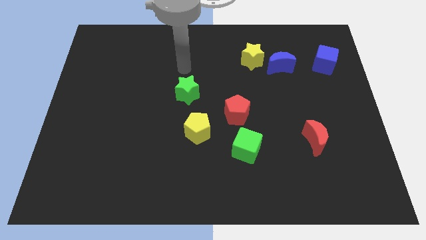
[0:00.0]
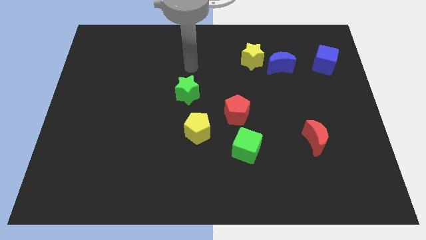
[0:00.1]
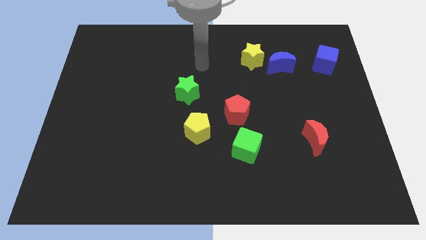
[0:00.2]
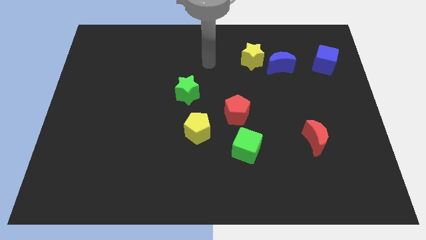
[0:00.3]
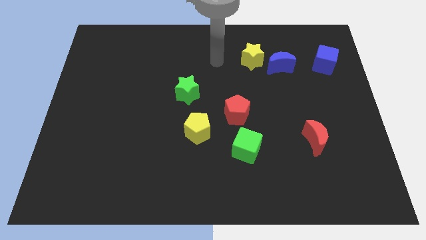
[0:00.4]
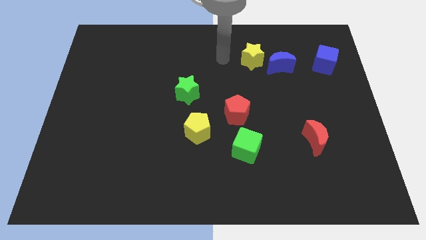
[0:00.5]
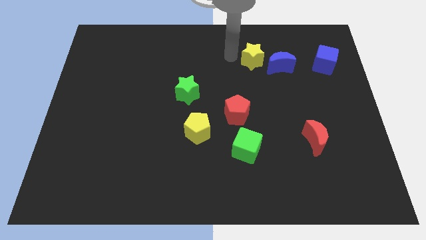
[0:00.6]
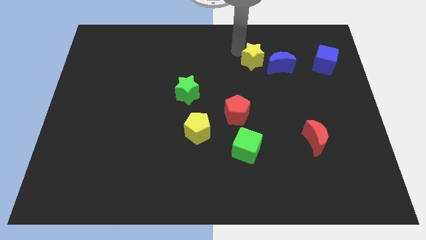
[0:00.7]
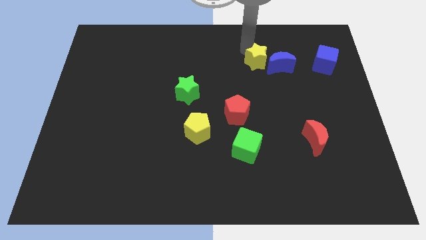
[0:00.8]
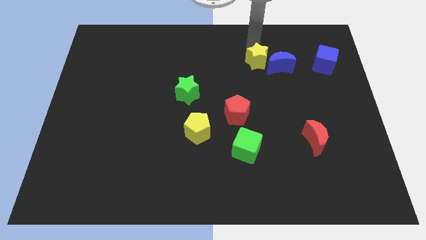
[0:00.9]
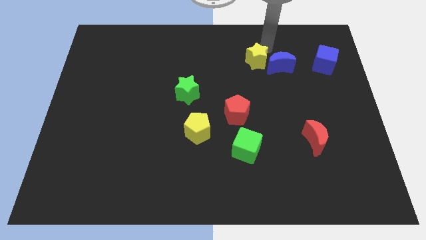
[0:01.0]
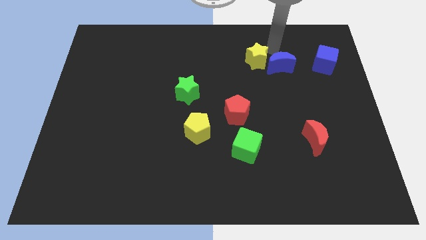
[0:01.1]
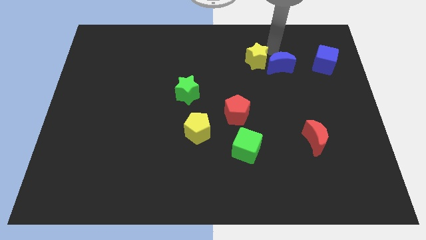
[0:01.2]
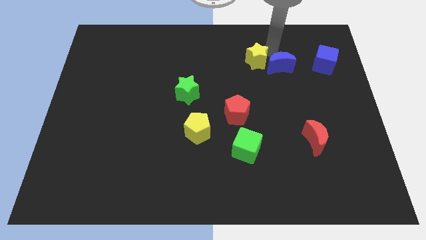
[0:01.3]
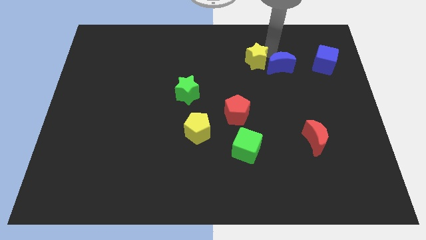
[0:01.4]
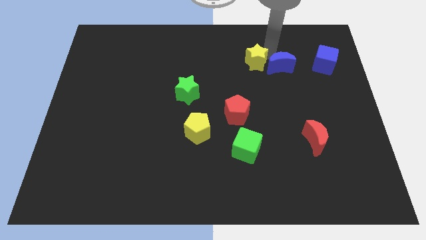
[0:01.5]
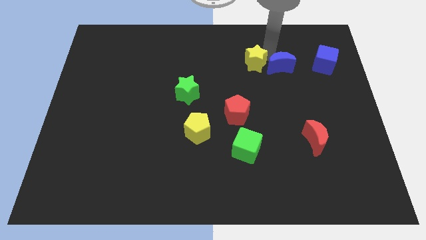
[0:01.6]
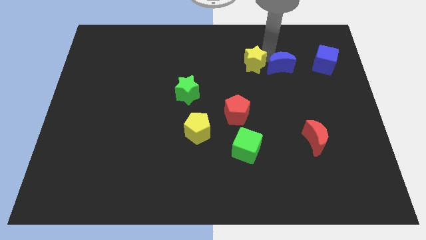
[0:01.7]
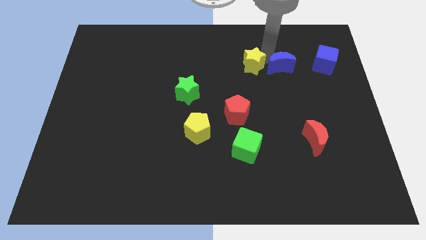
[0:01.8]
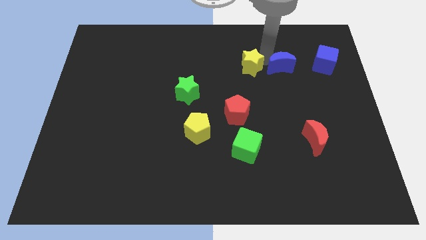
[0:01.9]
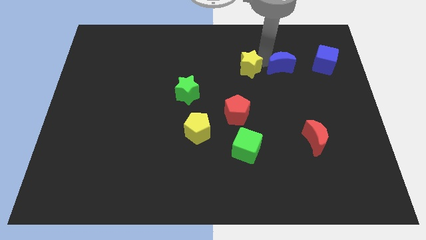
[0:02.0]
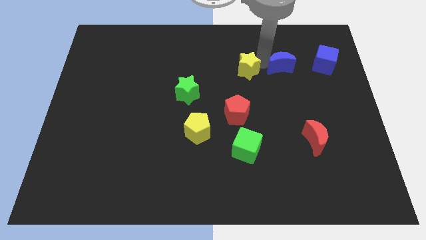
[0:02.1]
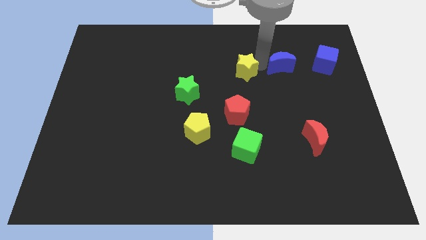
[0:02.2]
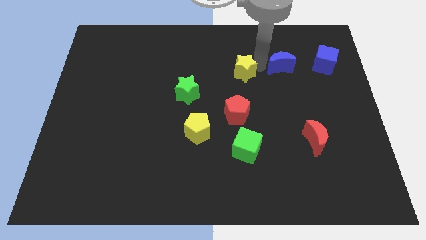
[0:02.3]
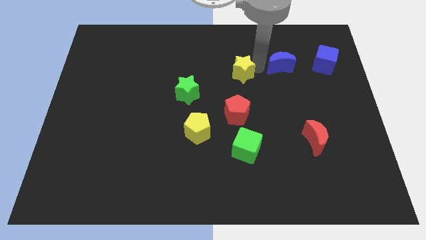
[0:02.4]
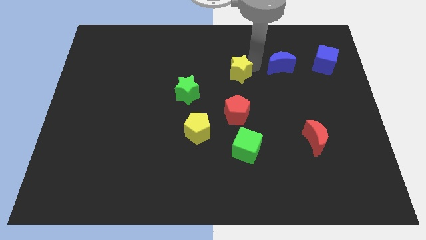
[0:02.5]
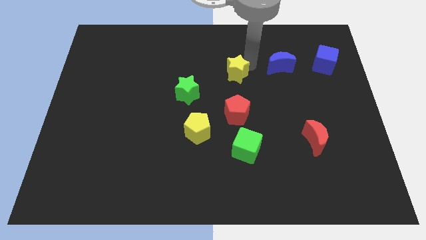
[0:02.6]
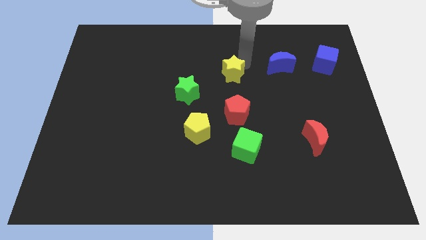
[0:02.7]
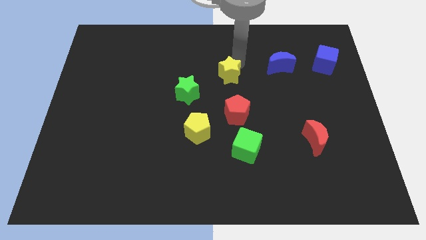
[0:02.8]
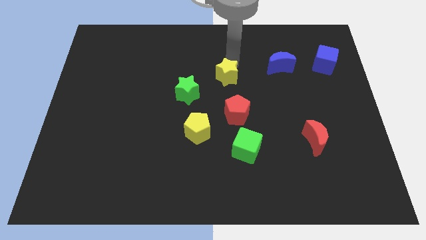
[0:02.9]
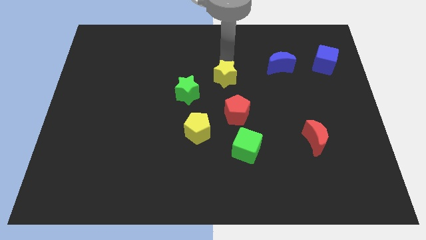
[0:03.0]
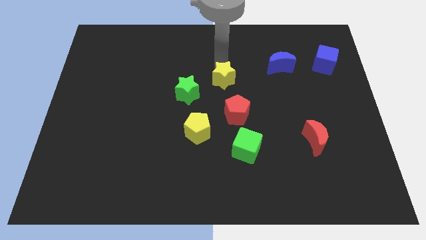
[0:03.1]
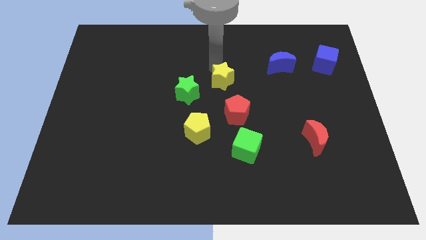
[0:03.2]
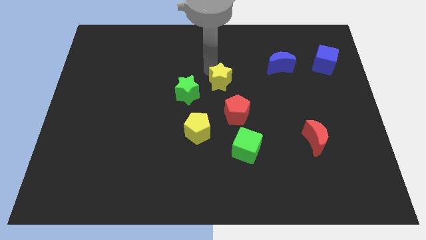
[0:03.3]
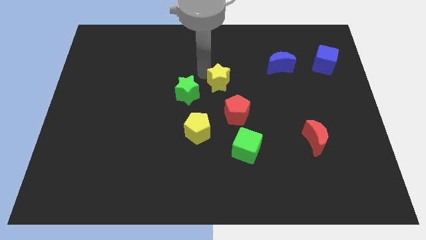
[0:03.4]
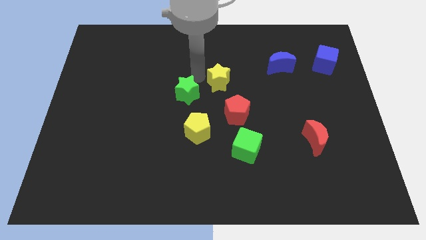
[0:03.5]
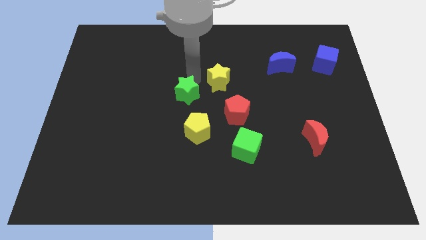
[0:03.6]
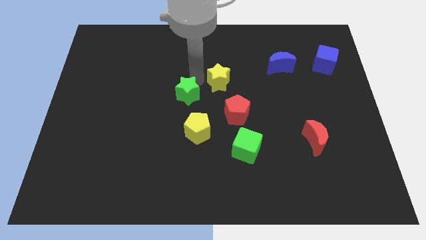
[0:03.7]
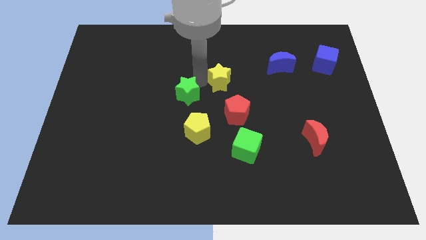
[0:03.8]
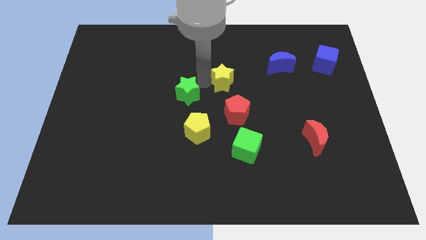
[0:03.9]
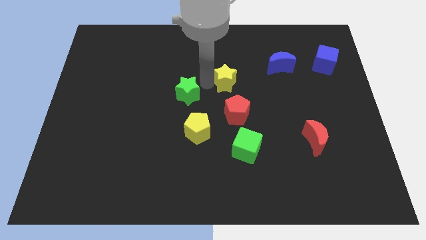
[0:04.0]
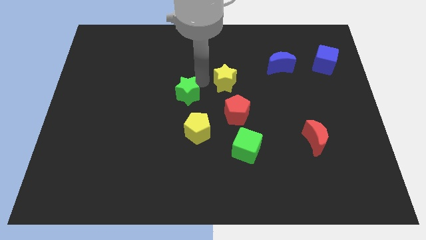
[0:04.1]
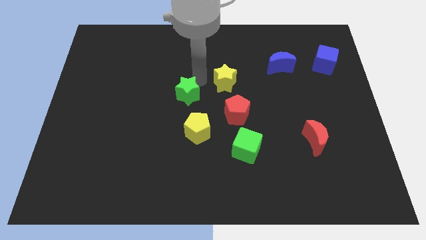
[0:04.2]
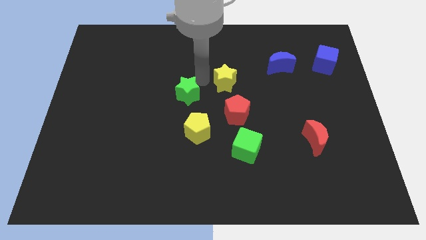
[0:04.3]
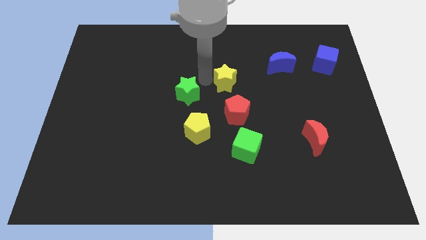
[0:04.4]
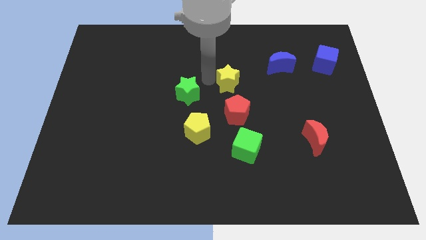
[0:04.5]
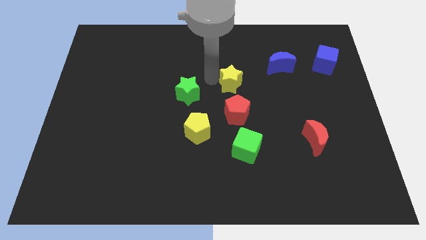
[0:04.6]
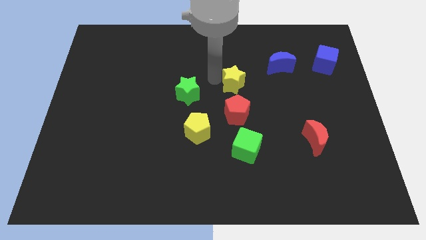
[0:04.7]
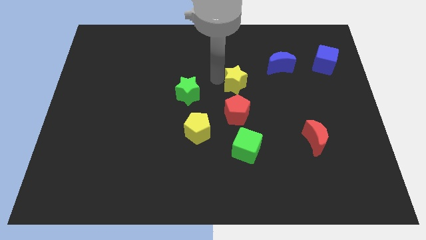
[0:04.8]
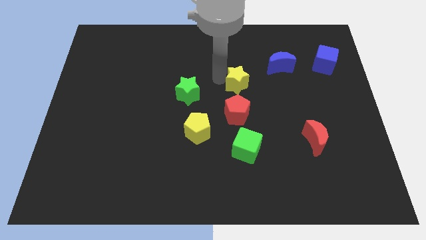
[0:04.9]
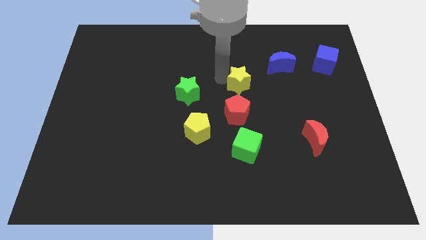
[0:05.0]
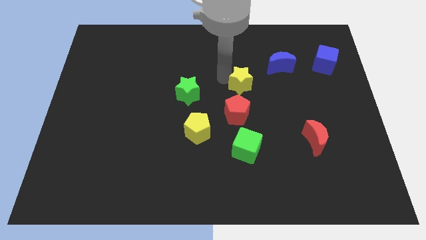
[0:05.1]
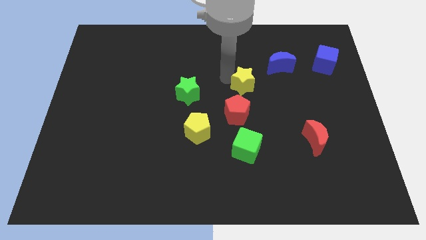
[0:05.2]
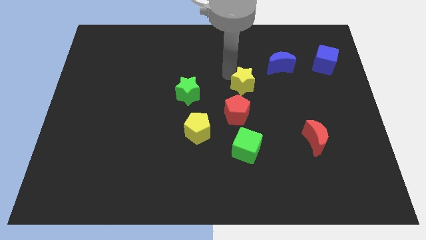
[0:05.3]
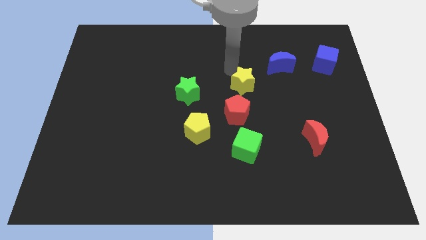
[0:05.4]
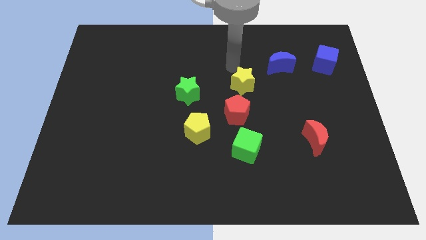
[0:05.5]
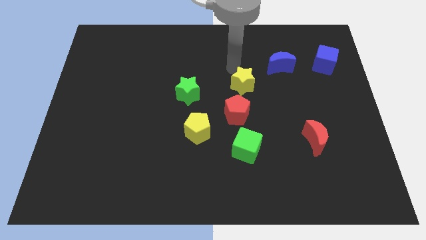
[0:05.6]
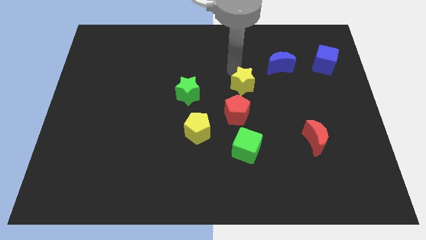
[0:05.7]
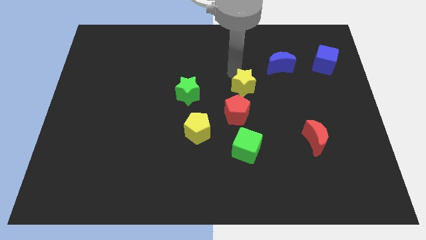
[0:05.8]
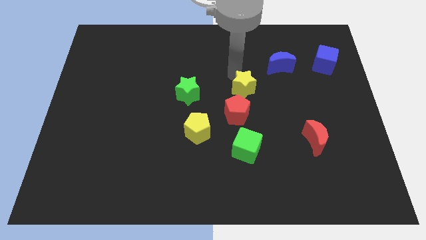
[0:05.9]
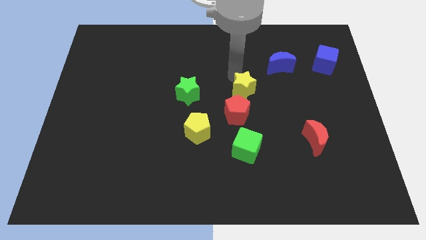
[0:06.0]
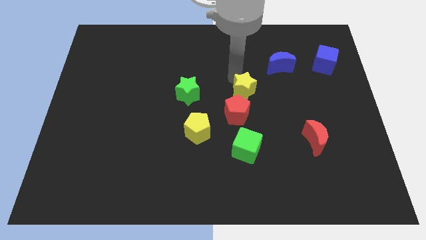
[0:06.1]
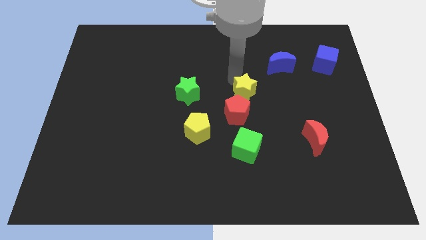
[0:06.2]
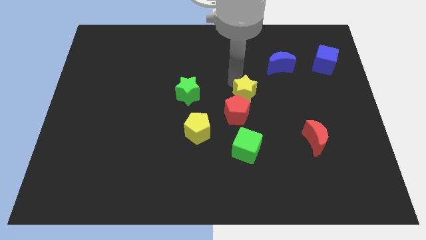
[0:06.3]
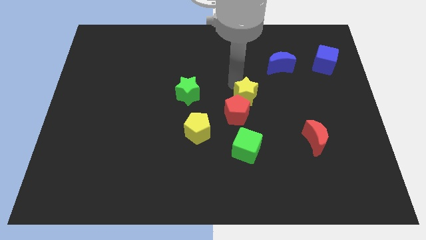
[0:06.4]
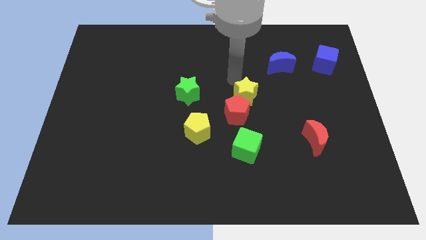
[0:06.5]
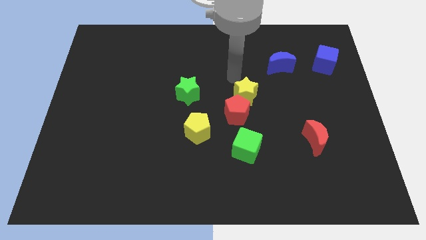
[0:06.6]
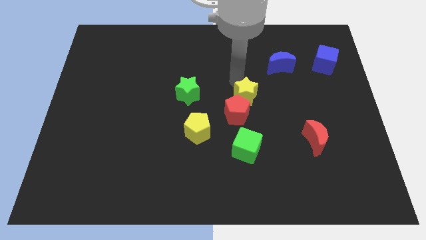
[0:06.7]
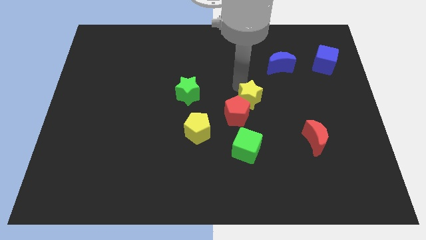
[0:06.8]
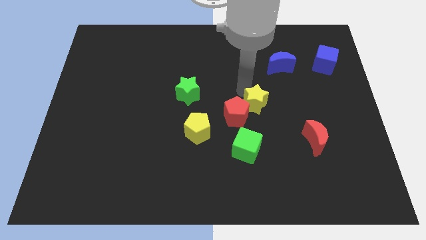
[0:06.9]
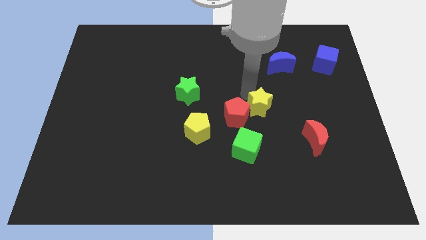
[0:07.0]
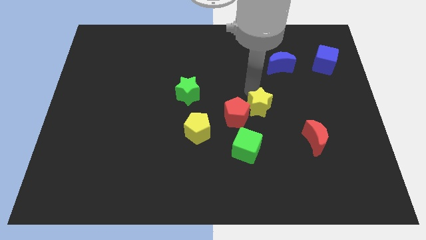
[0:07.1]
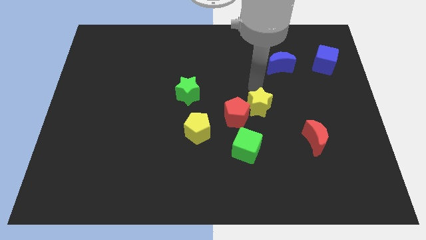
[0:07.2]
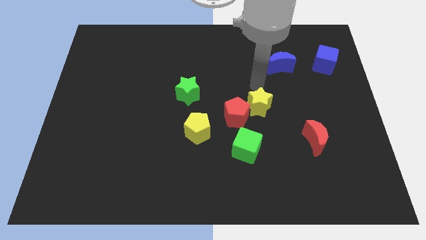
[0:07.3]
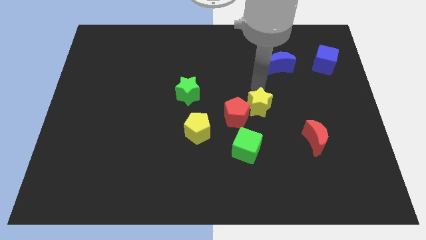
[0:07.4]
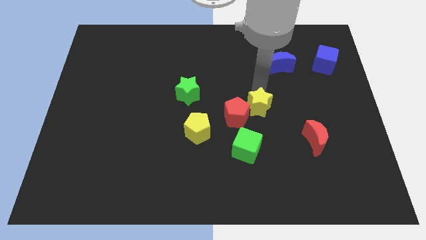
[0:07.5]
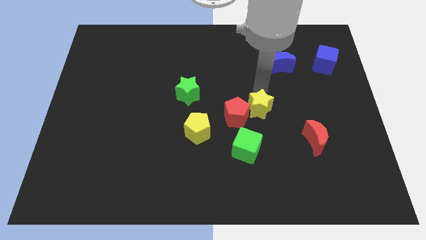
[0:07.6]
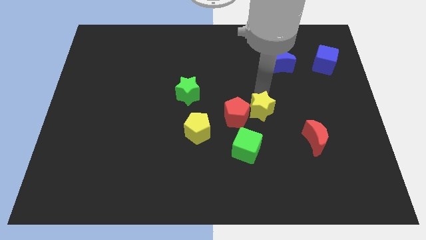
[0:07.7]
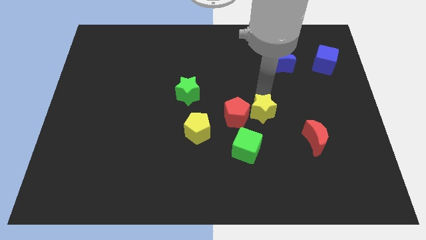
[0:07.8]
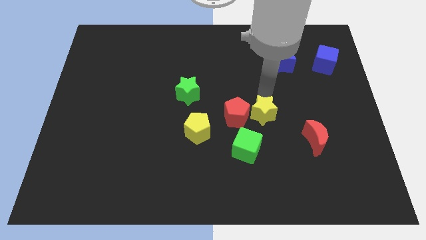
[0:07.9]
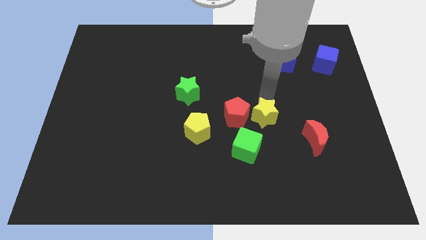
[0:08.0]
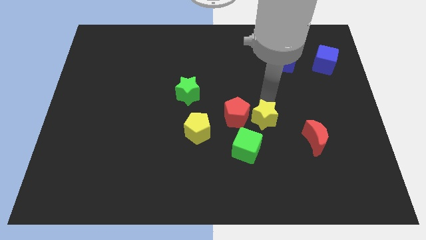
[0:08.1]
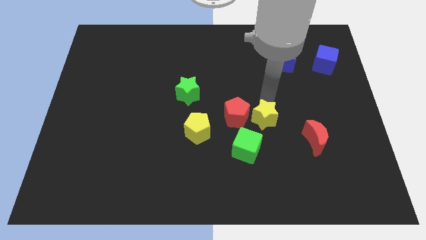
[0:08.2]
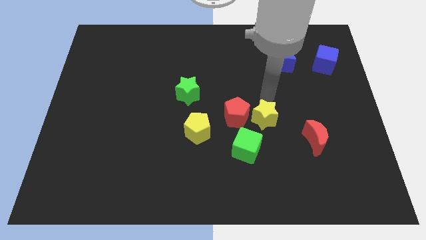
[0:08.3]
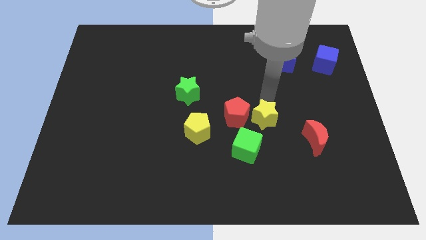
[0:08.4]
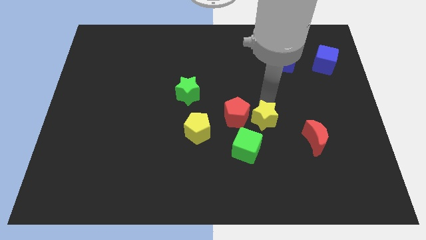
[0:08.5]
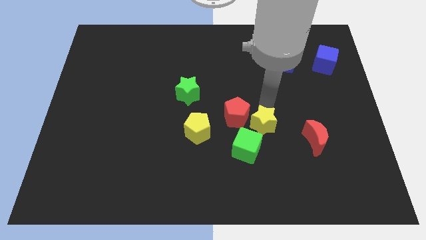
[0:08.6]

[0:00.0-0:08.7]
move the yellow star downwards
